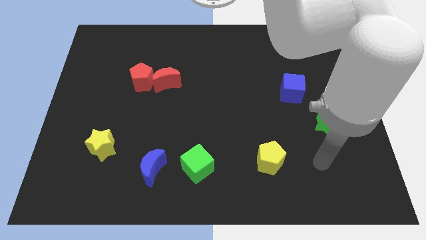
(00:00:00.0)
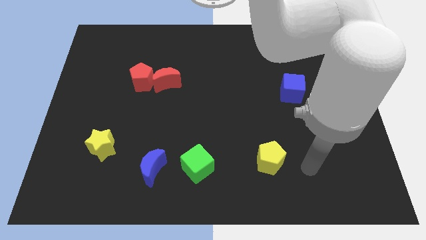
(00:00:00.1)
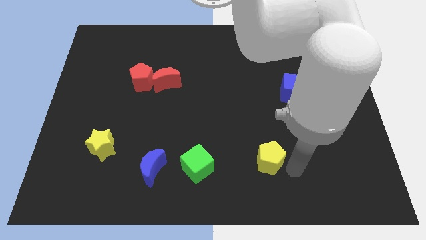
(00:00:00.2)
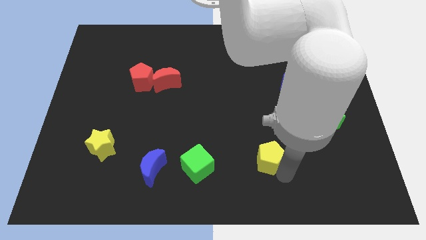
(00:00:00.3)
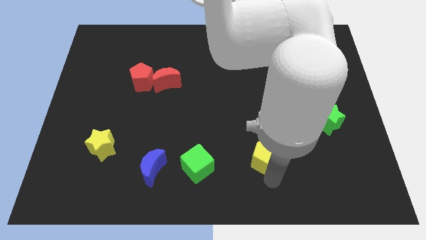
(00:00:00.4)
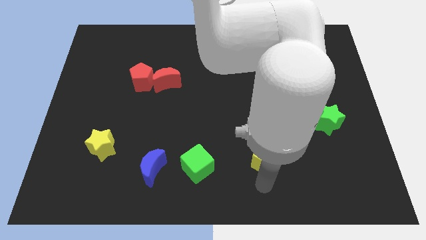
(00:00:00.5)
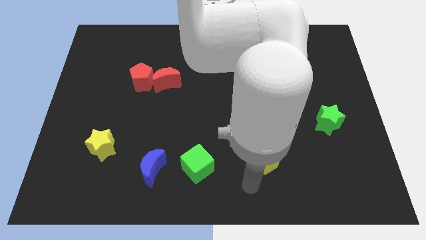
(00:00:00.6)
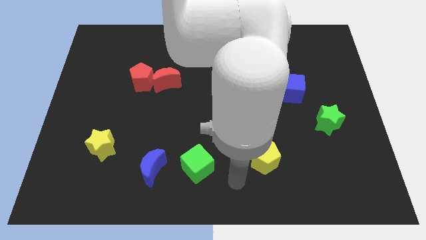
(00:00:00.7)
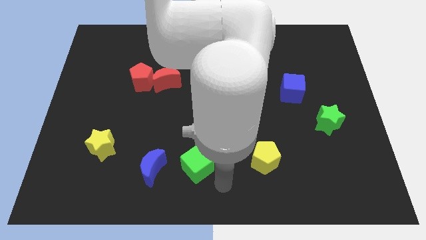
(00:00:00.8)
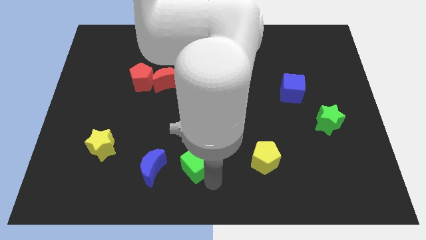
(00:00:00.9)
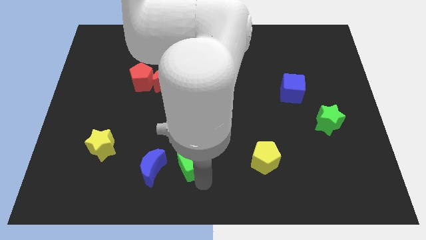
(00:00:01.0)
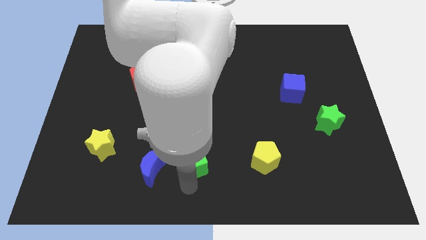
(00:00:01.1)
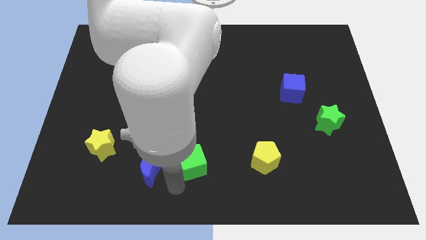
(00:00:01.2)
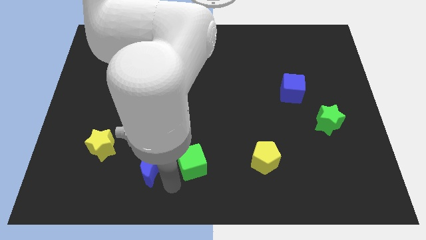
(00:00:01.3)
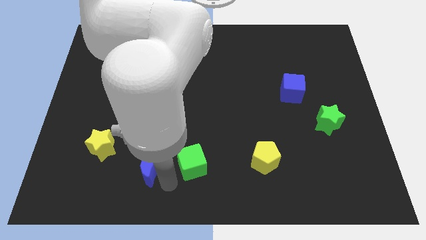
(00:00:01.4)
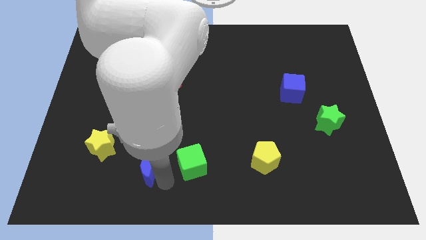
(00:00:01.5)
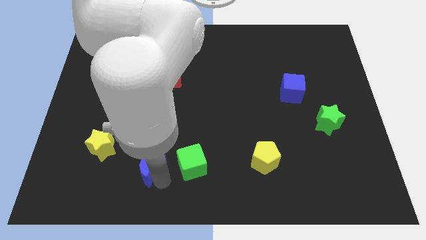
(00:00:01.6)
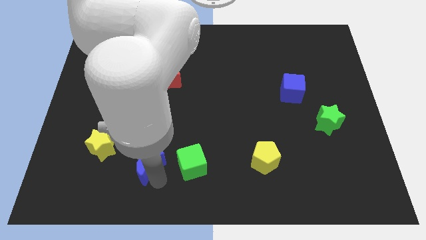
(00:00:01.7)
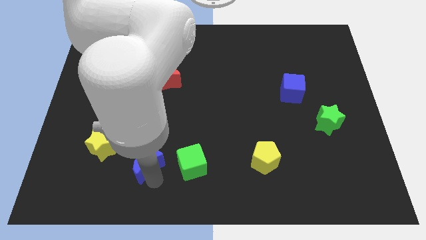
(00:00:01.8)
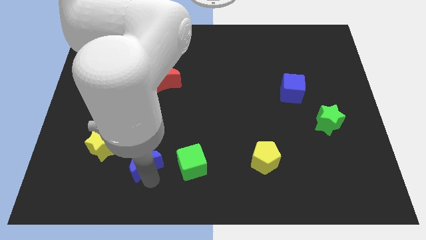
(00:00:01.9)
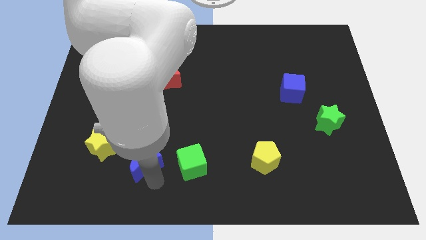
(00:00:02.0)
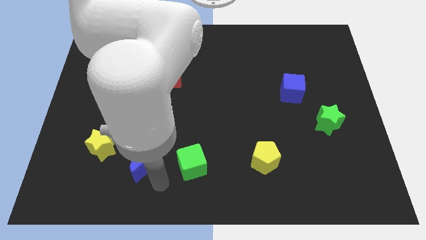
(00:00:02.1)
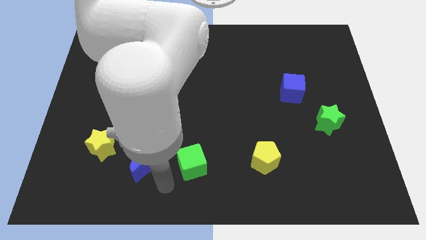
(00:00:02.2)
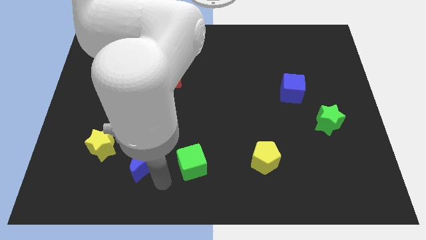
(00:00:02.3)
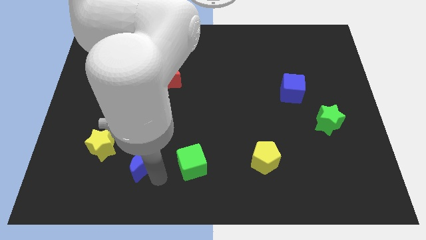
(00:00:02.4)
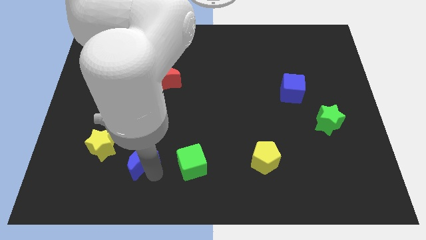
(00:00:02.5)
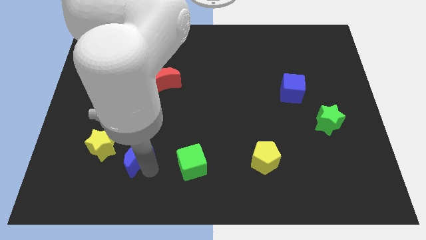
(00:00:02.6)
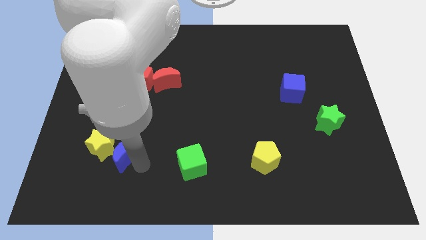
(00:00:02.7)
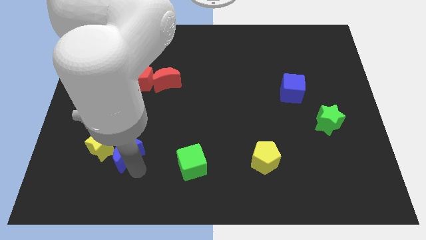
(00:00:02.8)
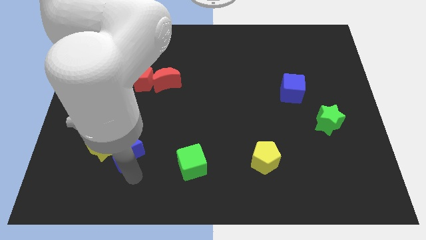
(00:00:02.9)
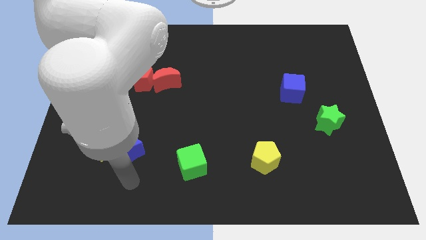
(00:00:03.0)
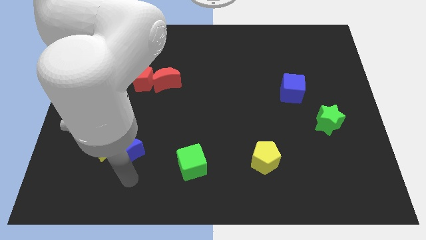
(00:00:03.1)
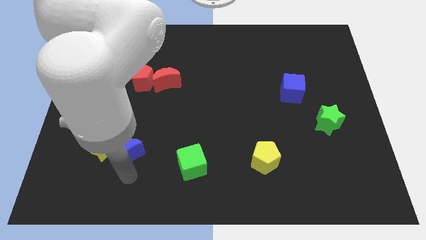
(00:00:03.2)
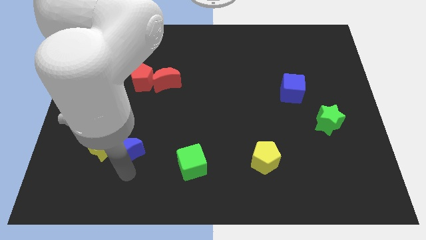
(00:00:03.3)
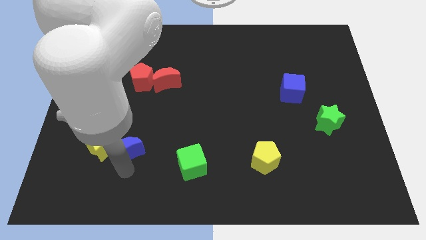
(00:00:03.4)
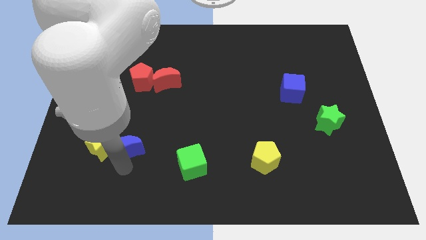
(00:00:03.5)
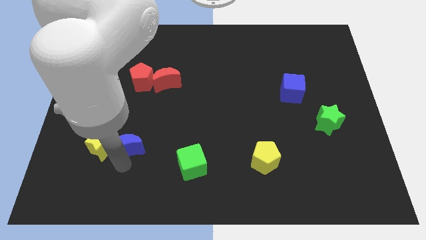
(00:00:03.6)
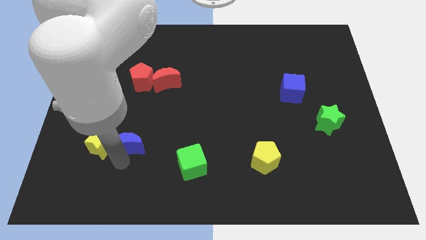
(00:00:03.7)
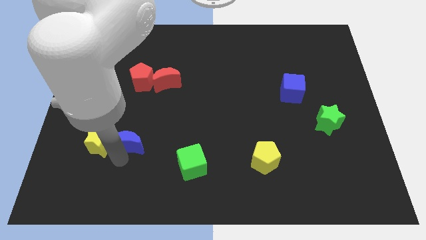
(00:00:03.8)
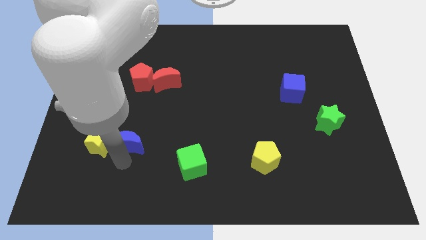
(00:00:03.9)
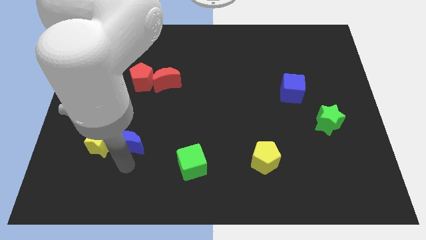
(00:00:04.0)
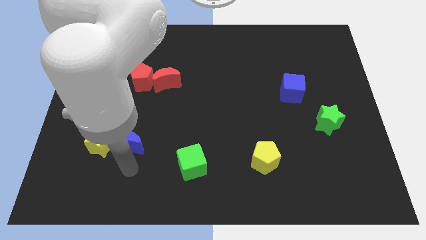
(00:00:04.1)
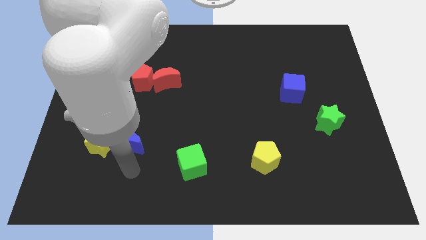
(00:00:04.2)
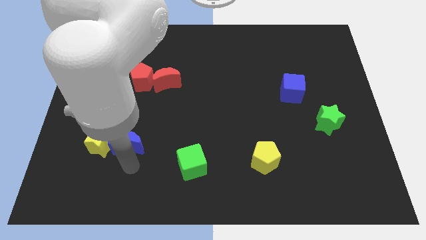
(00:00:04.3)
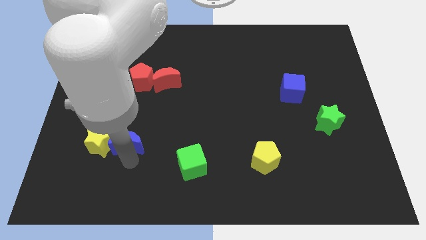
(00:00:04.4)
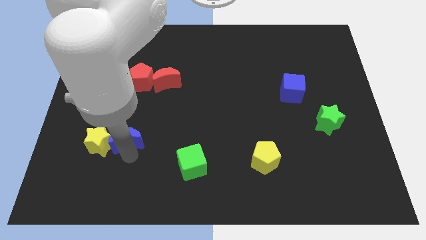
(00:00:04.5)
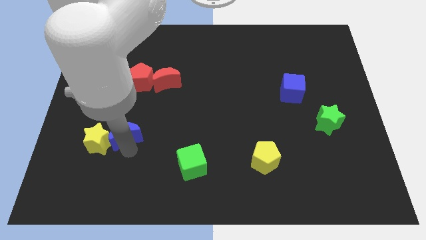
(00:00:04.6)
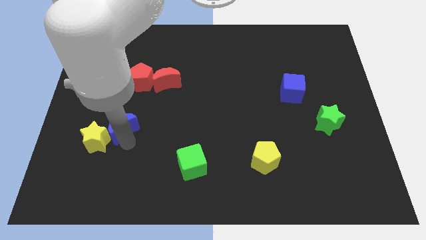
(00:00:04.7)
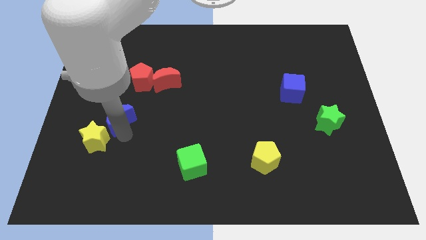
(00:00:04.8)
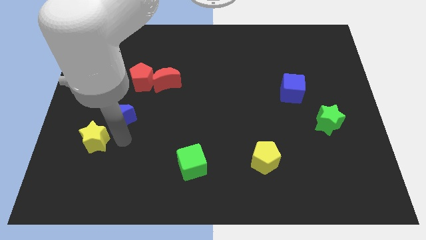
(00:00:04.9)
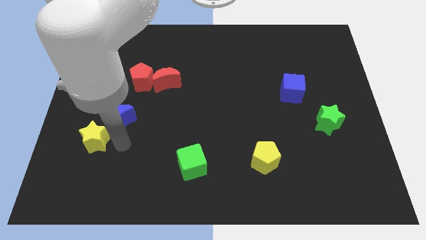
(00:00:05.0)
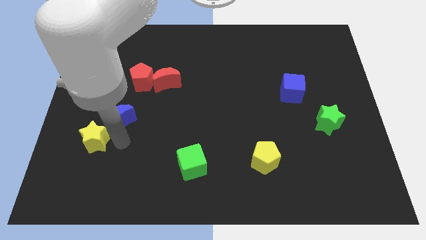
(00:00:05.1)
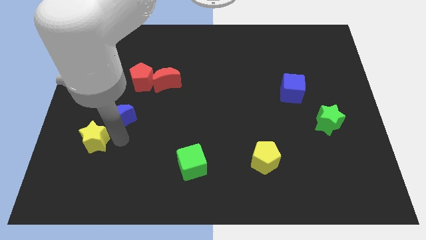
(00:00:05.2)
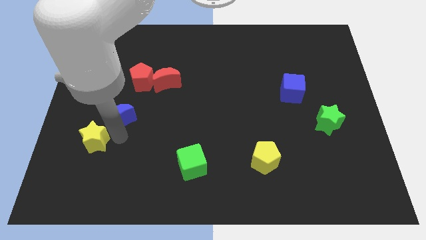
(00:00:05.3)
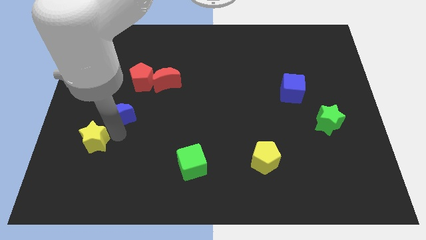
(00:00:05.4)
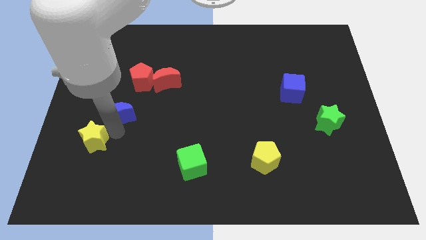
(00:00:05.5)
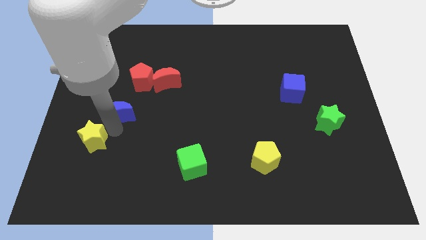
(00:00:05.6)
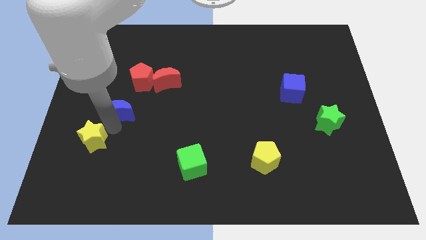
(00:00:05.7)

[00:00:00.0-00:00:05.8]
push the blue moon to the bottom left side of the red pentagon
